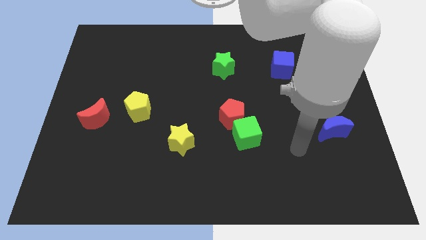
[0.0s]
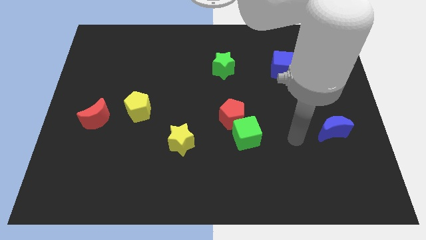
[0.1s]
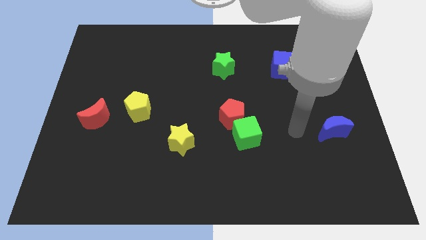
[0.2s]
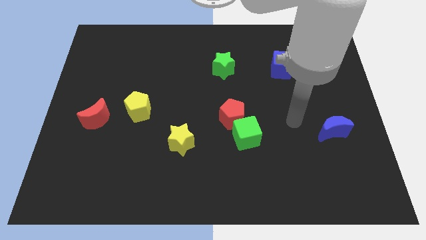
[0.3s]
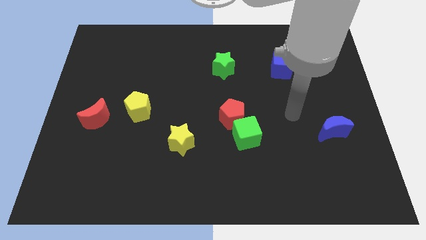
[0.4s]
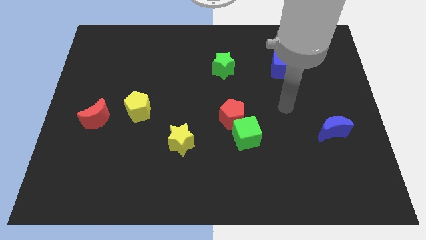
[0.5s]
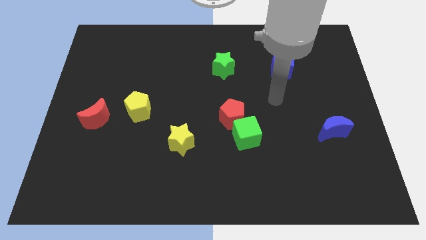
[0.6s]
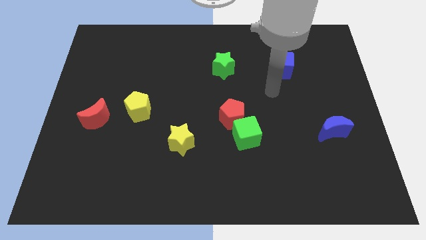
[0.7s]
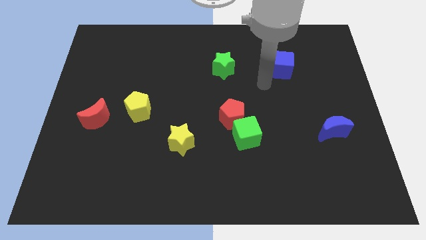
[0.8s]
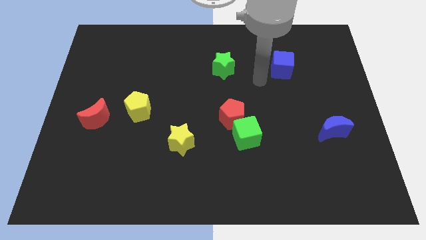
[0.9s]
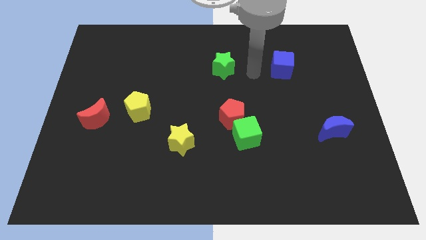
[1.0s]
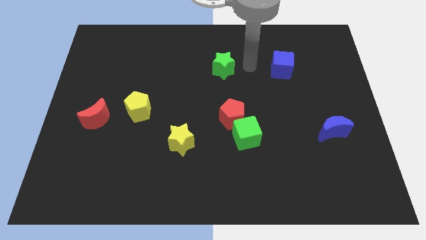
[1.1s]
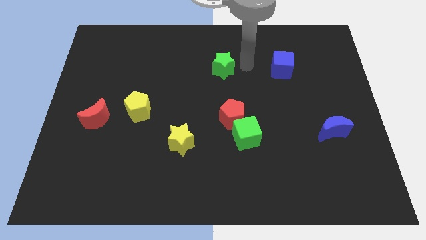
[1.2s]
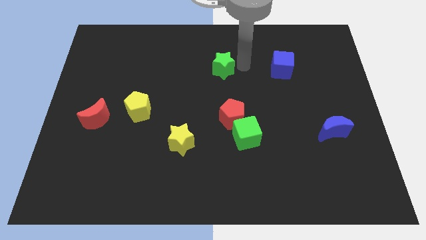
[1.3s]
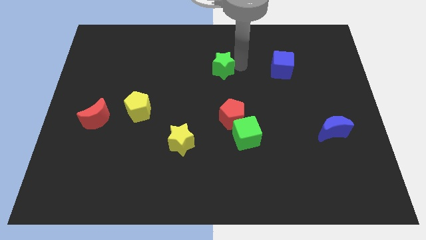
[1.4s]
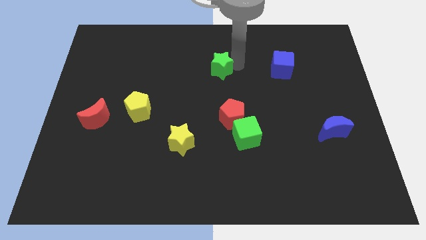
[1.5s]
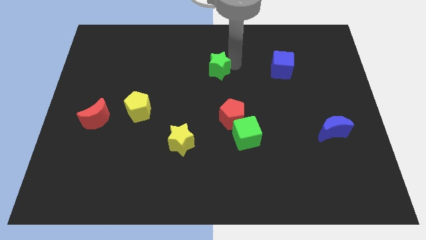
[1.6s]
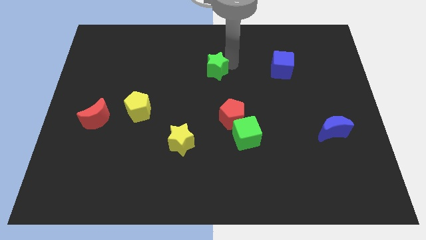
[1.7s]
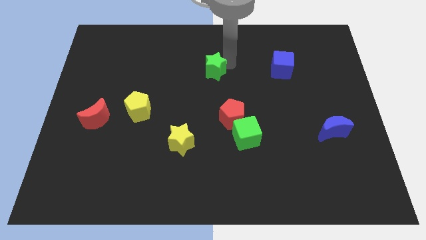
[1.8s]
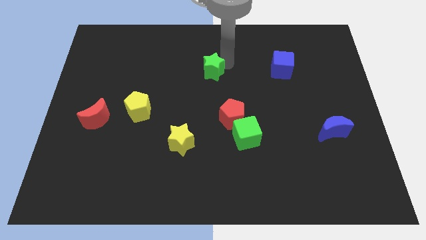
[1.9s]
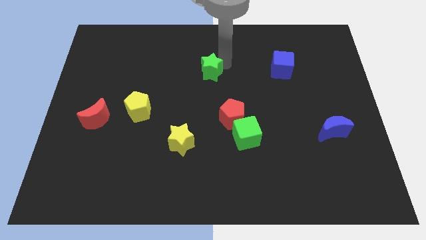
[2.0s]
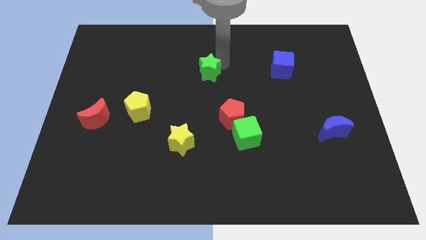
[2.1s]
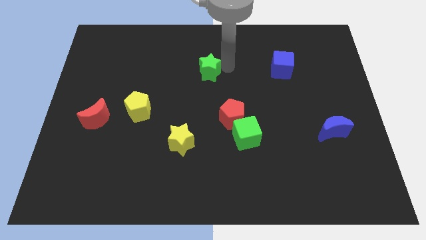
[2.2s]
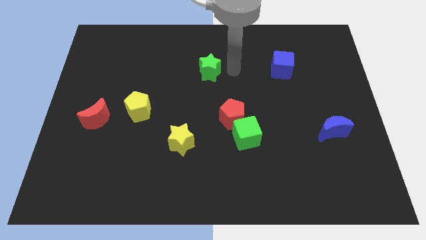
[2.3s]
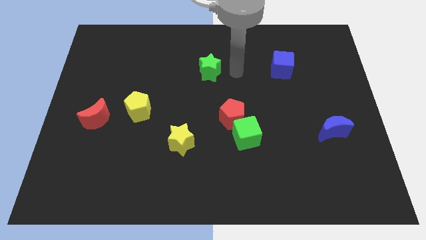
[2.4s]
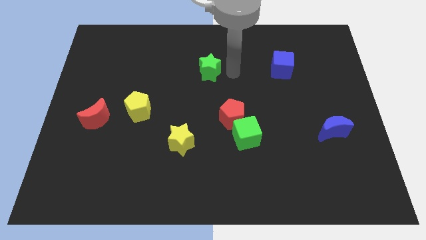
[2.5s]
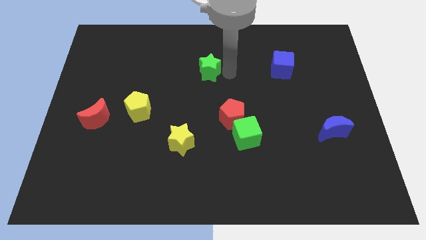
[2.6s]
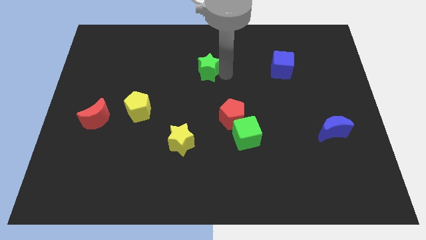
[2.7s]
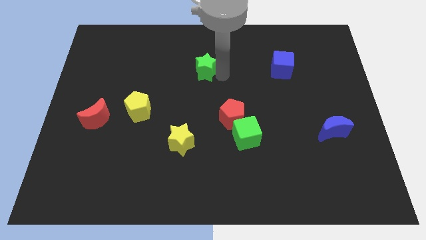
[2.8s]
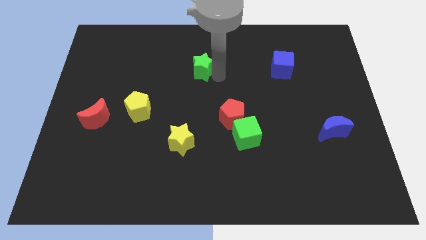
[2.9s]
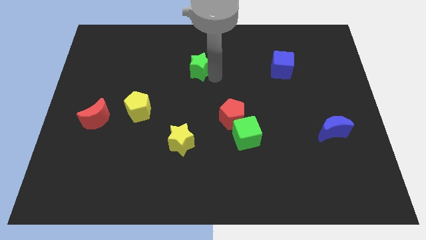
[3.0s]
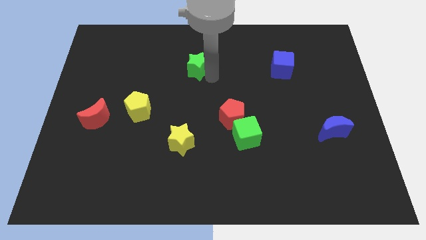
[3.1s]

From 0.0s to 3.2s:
slide the green star left somewhat

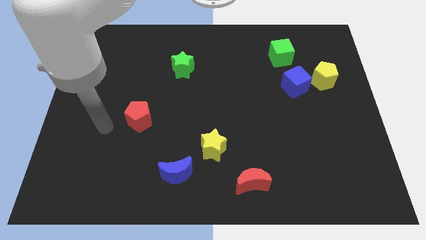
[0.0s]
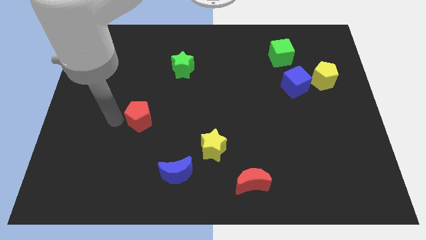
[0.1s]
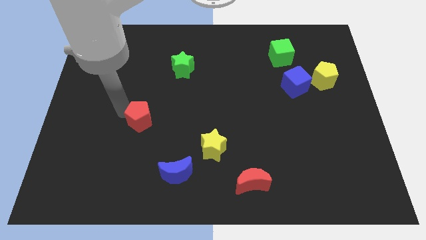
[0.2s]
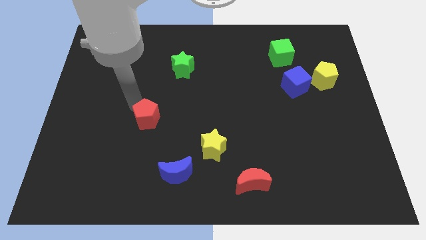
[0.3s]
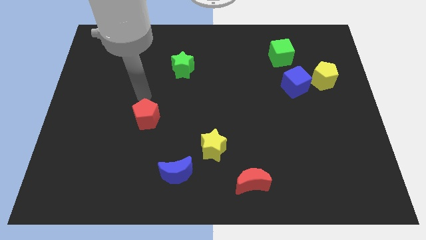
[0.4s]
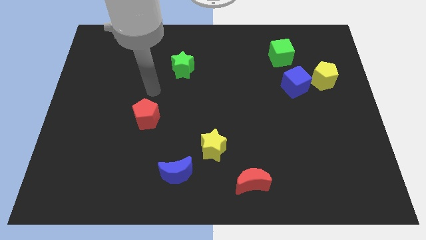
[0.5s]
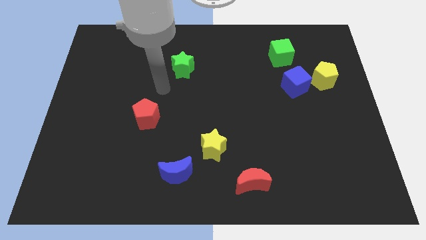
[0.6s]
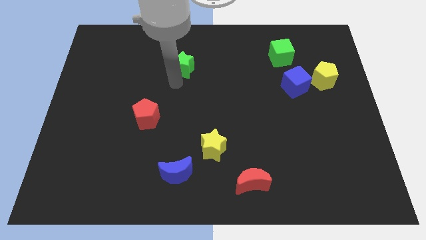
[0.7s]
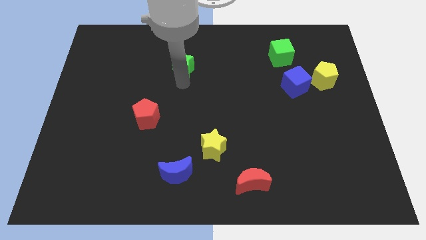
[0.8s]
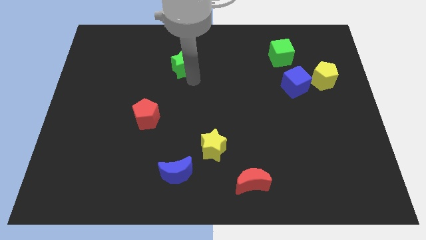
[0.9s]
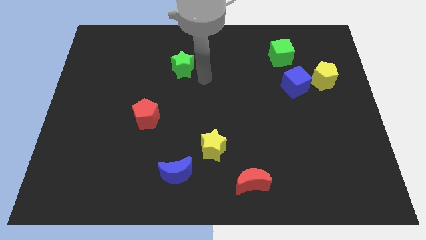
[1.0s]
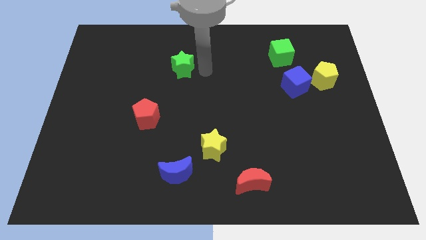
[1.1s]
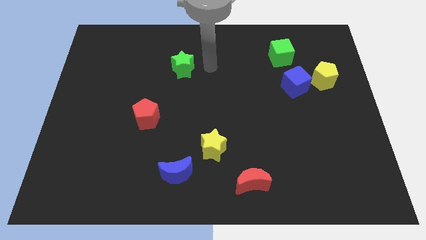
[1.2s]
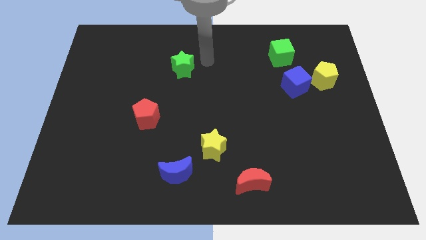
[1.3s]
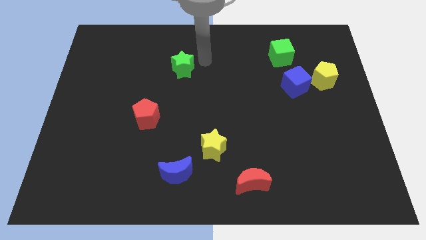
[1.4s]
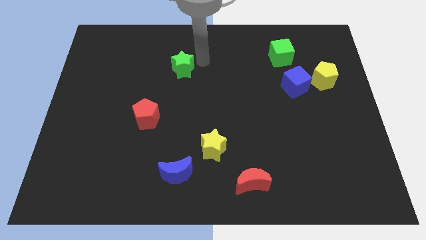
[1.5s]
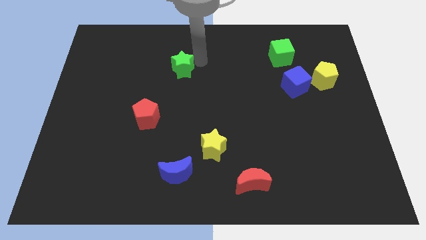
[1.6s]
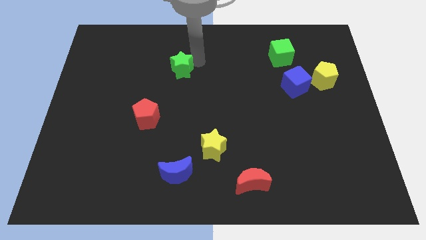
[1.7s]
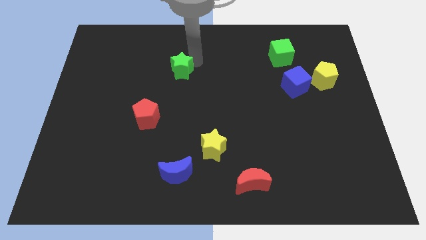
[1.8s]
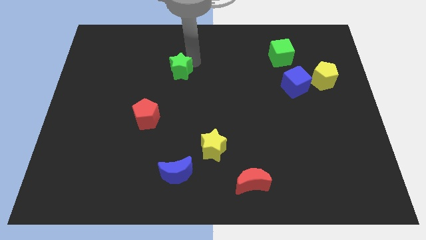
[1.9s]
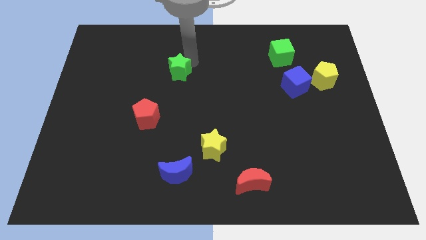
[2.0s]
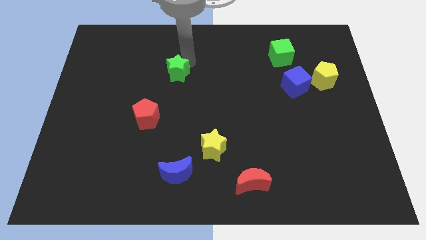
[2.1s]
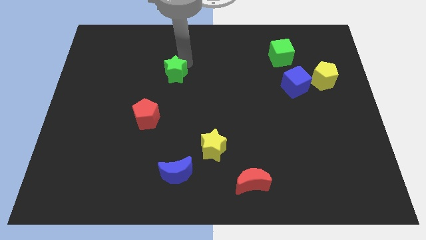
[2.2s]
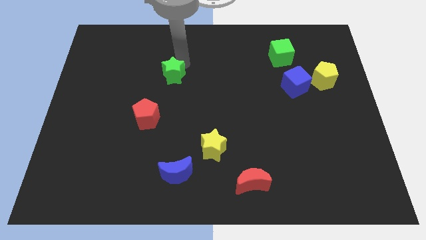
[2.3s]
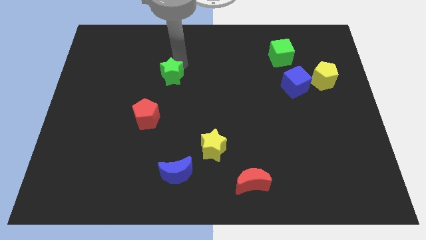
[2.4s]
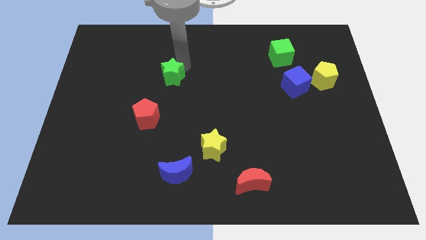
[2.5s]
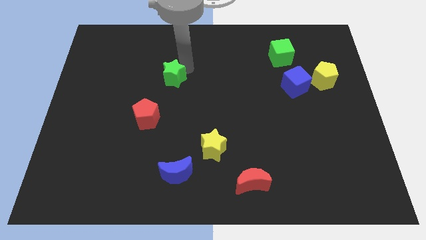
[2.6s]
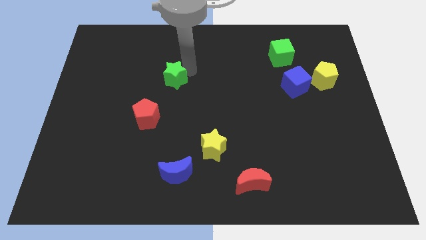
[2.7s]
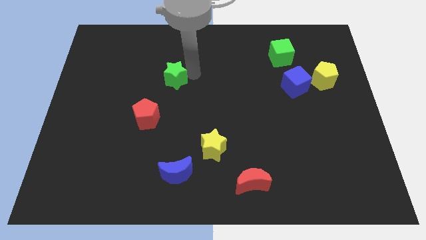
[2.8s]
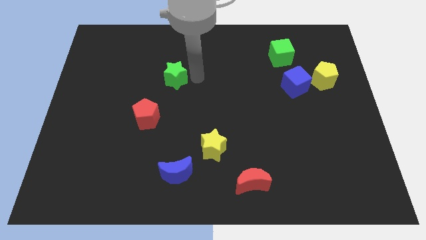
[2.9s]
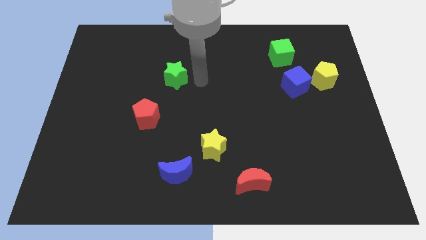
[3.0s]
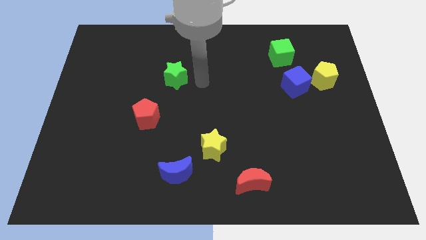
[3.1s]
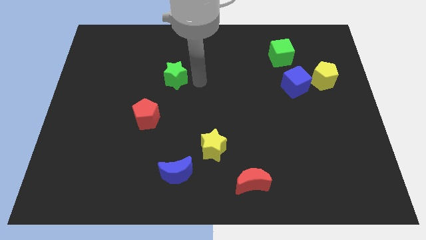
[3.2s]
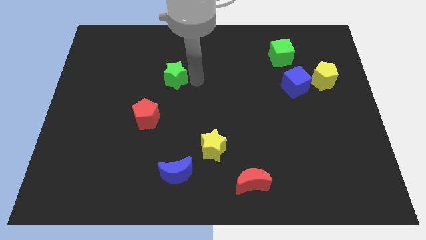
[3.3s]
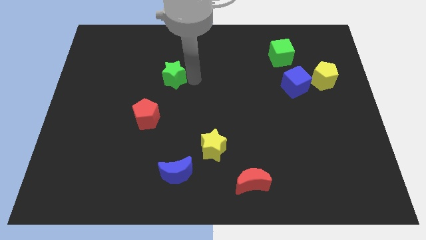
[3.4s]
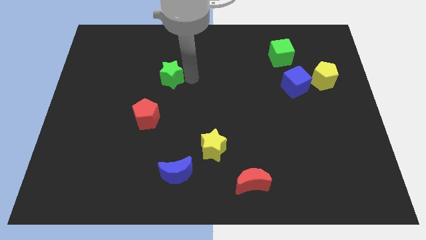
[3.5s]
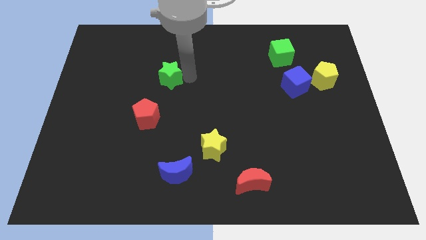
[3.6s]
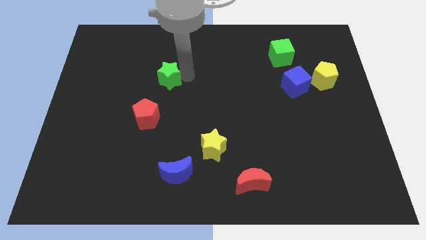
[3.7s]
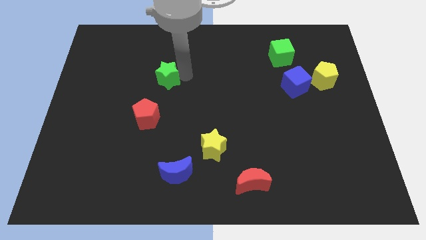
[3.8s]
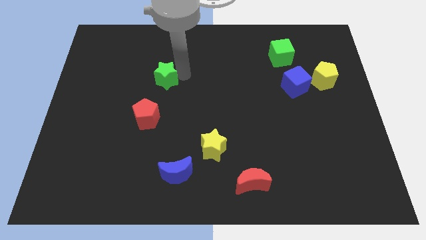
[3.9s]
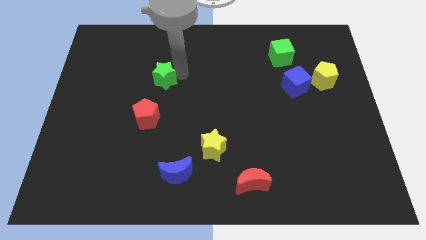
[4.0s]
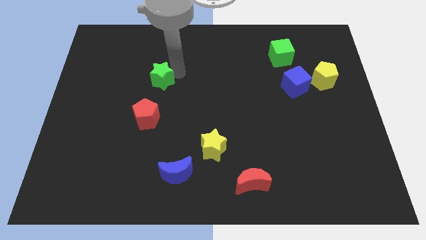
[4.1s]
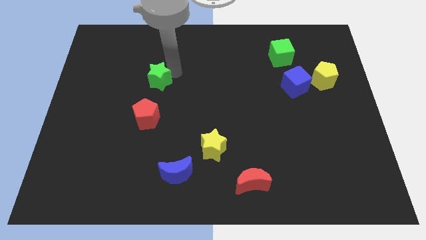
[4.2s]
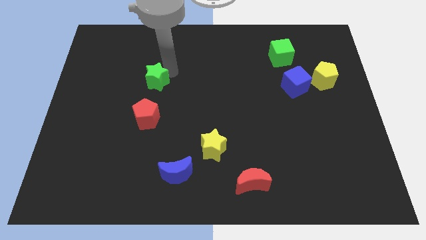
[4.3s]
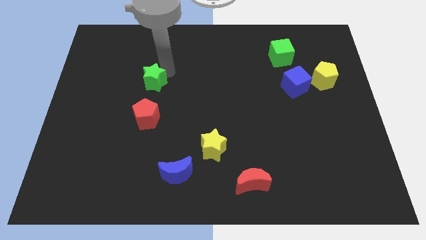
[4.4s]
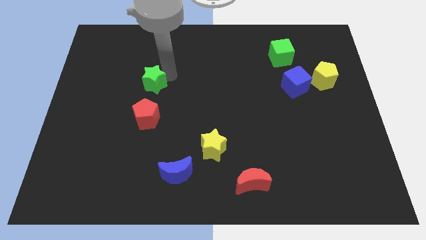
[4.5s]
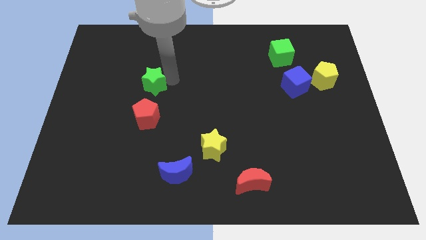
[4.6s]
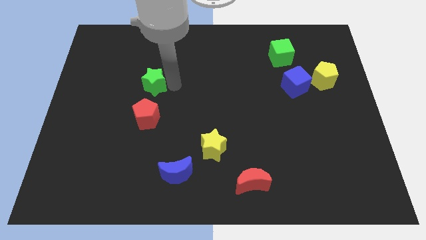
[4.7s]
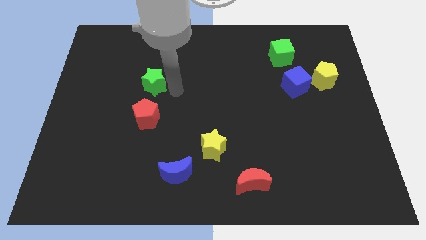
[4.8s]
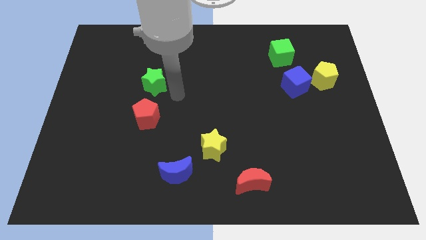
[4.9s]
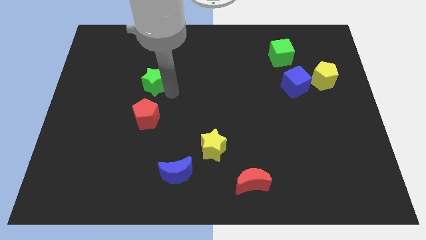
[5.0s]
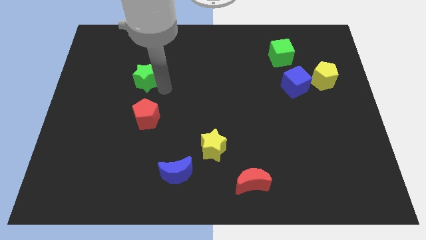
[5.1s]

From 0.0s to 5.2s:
slightly slide the green star to the left
